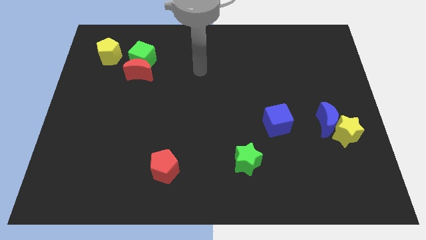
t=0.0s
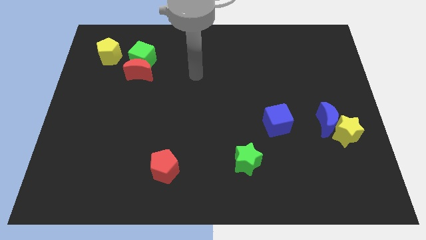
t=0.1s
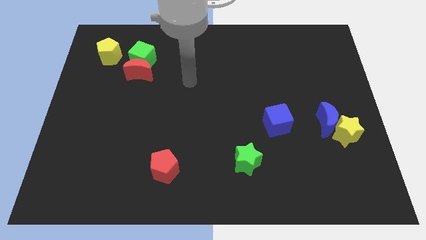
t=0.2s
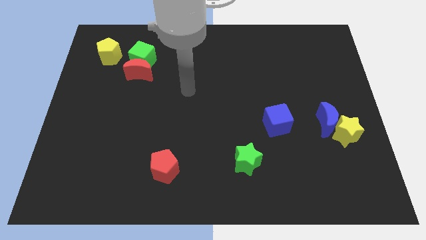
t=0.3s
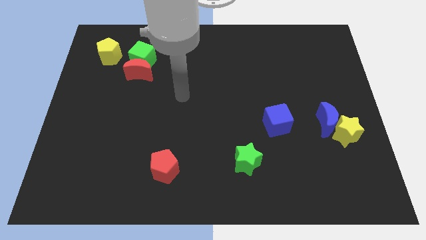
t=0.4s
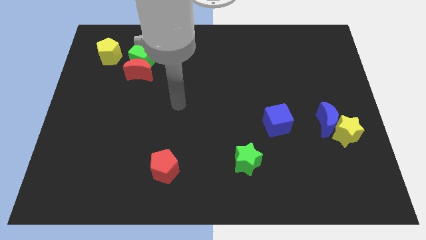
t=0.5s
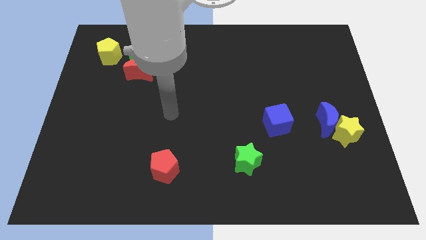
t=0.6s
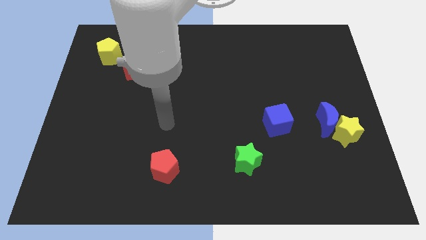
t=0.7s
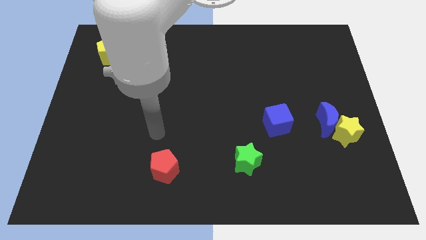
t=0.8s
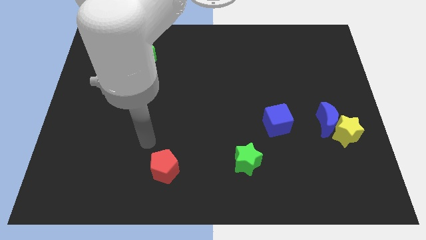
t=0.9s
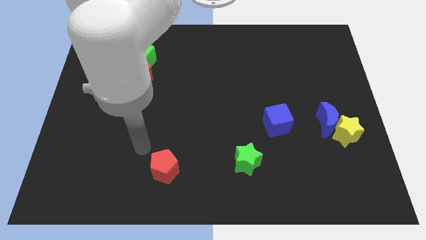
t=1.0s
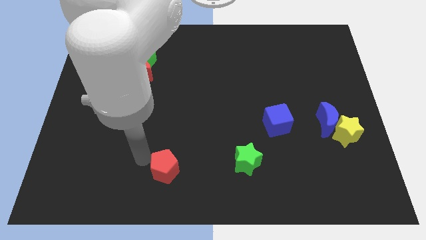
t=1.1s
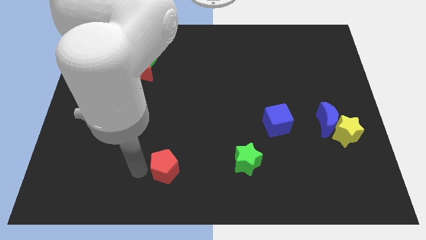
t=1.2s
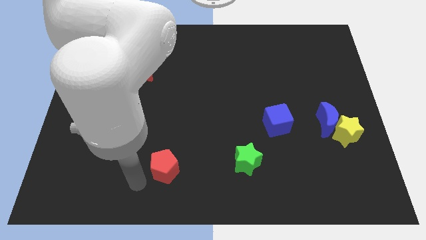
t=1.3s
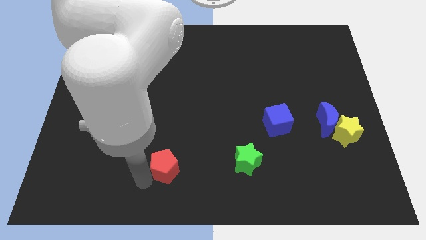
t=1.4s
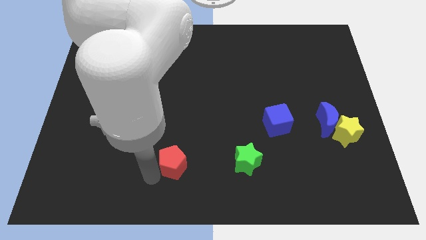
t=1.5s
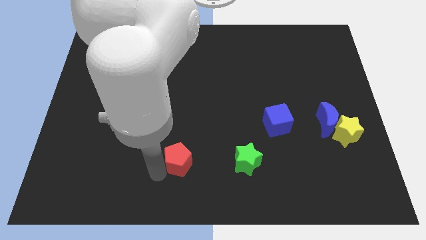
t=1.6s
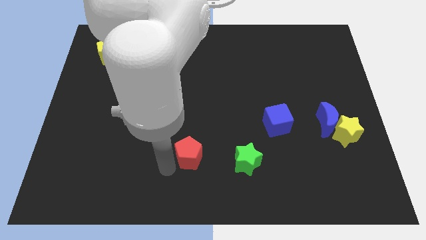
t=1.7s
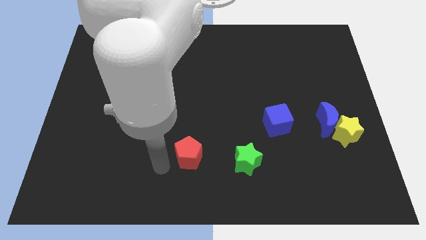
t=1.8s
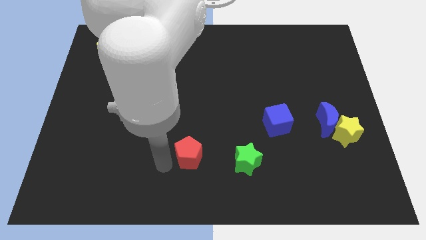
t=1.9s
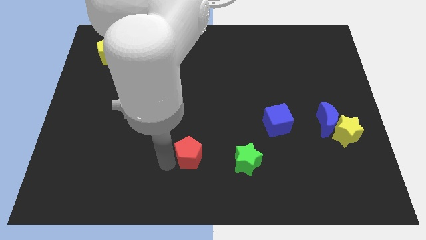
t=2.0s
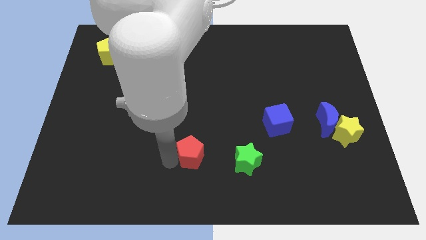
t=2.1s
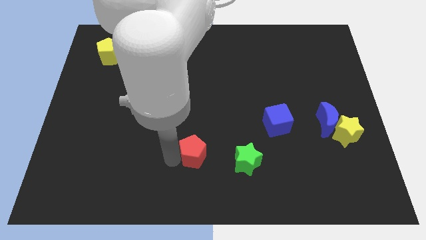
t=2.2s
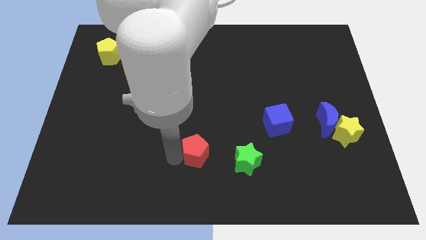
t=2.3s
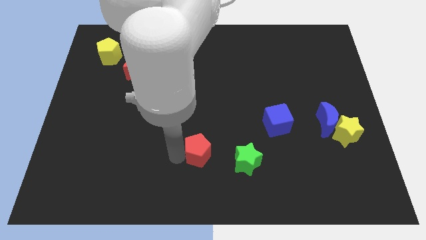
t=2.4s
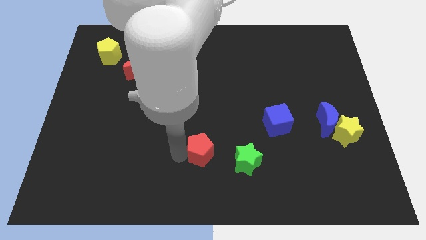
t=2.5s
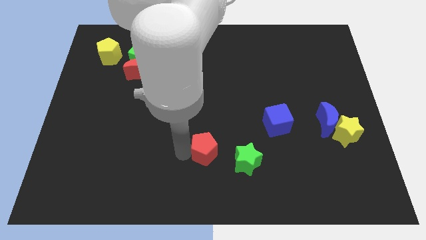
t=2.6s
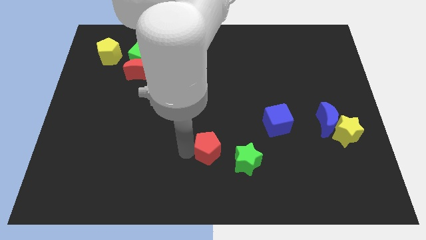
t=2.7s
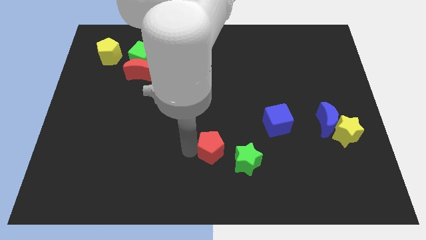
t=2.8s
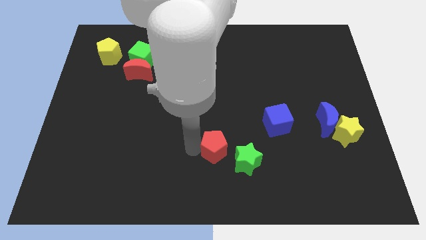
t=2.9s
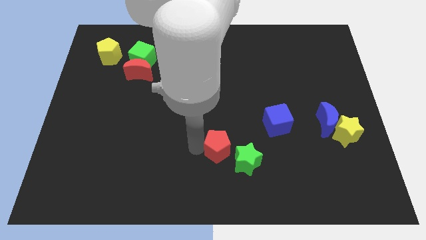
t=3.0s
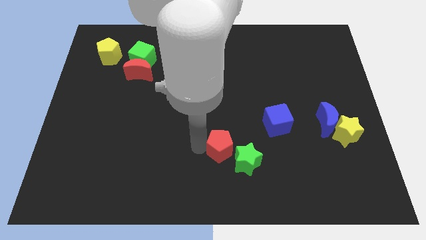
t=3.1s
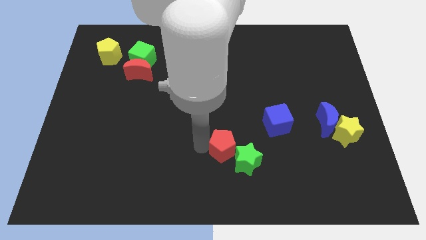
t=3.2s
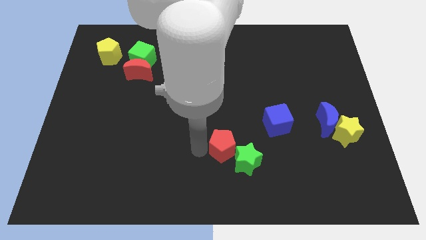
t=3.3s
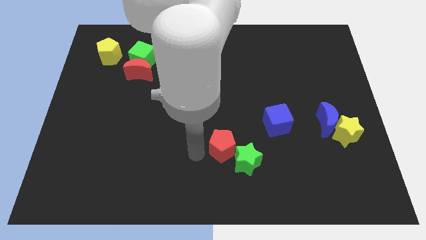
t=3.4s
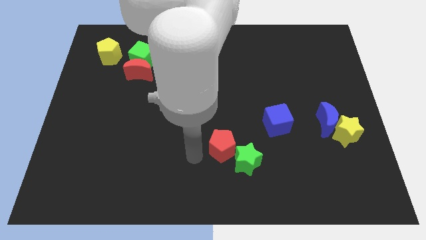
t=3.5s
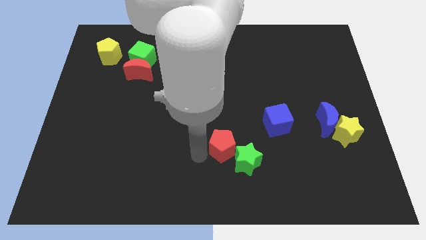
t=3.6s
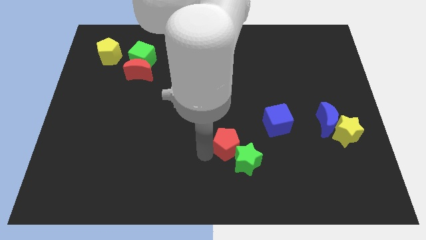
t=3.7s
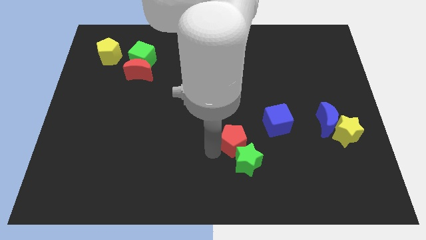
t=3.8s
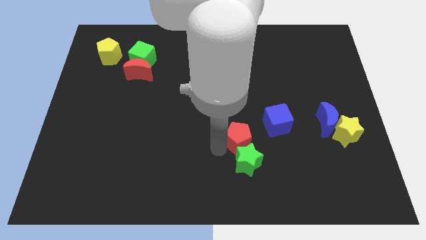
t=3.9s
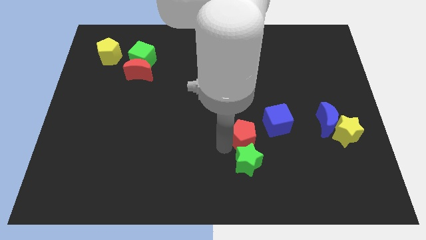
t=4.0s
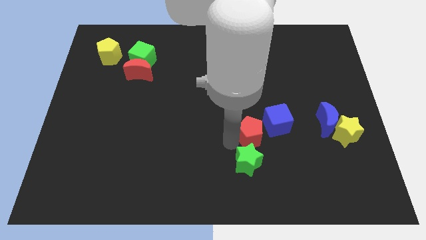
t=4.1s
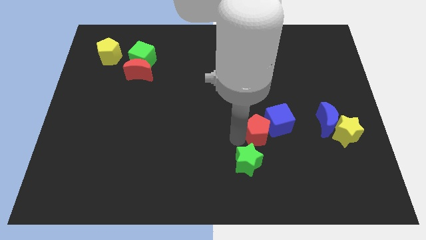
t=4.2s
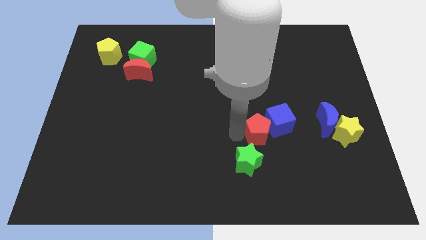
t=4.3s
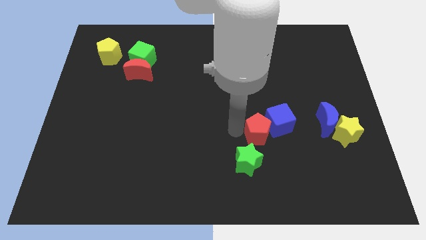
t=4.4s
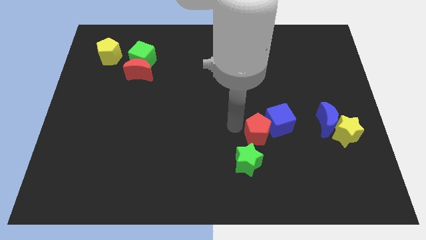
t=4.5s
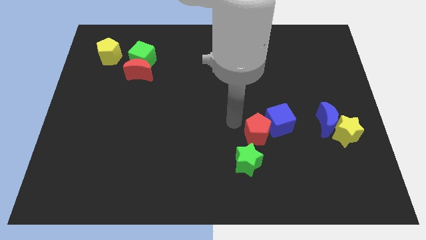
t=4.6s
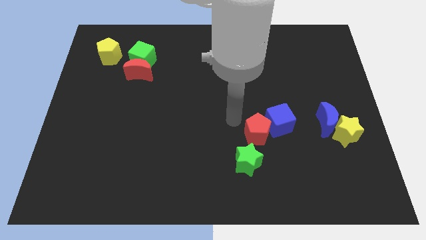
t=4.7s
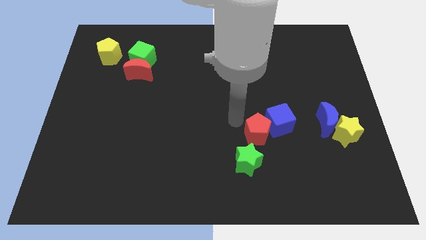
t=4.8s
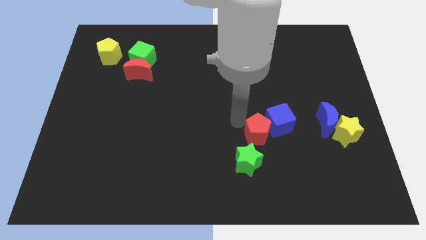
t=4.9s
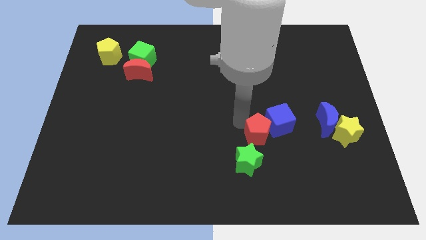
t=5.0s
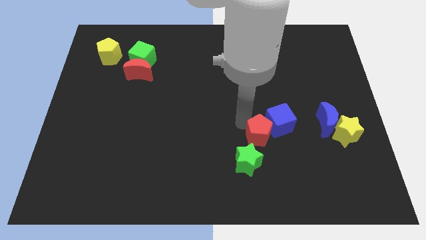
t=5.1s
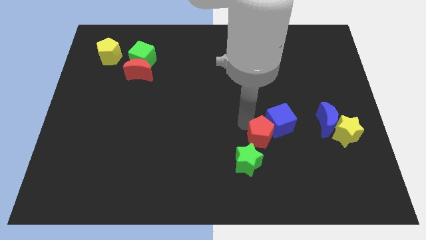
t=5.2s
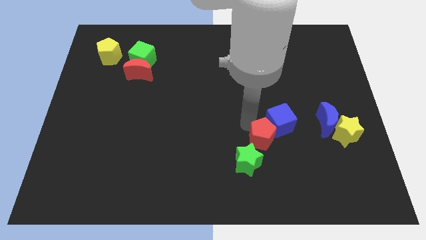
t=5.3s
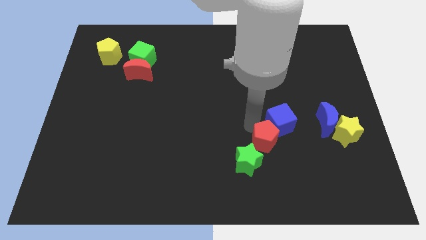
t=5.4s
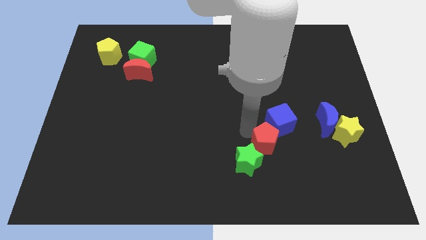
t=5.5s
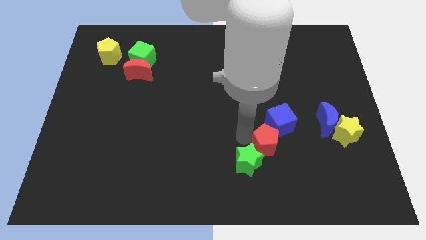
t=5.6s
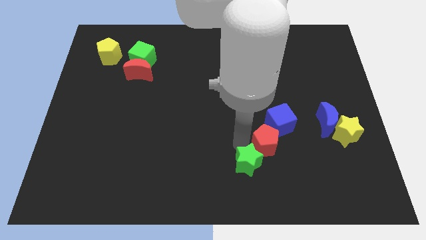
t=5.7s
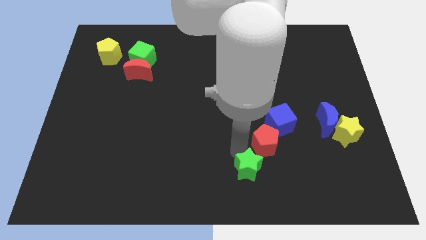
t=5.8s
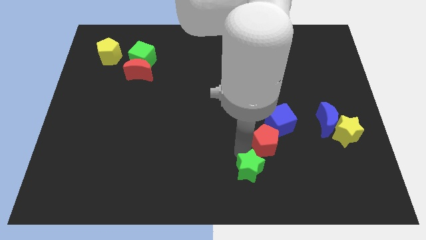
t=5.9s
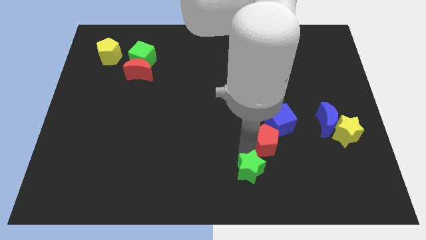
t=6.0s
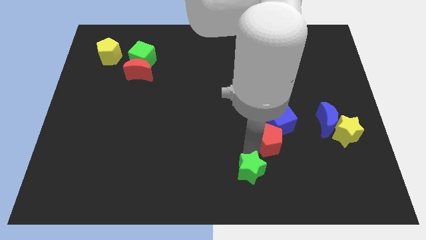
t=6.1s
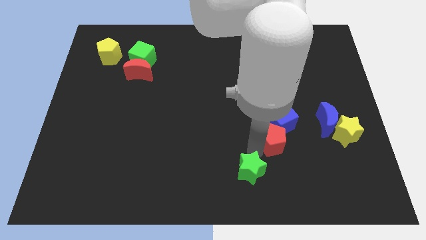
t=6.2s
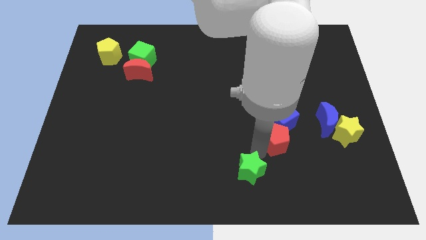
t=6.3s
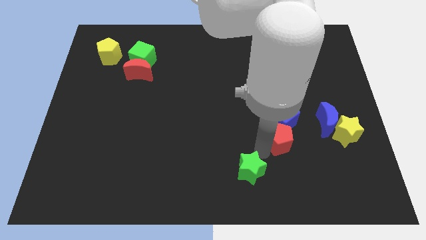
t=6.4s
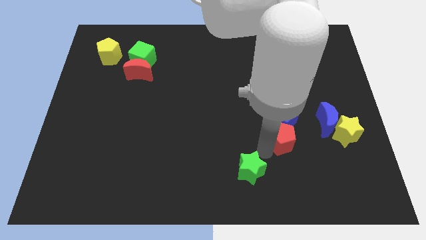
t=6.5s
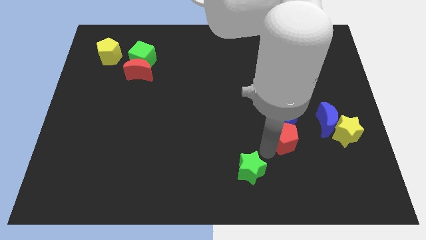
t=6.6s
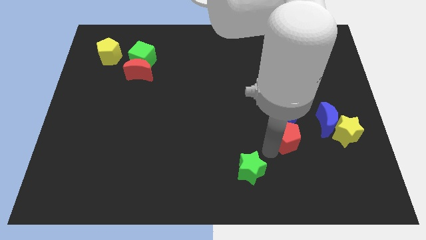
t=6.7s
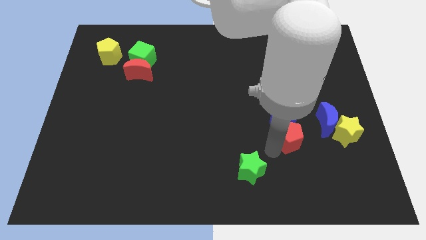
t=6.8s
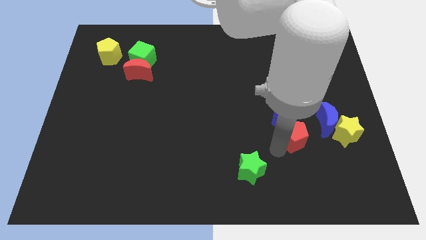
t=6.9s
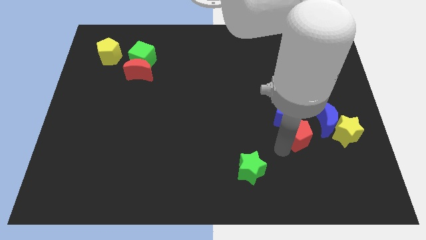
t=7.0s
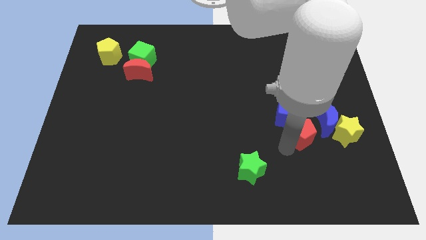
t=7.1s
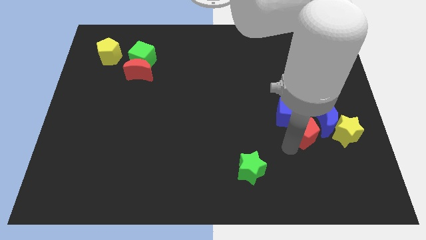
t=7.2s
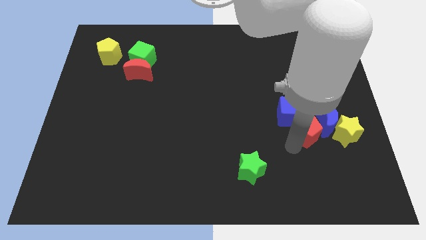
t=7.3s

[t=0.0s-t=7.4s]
slide the red pentagon to the blue moon
